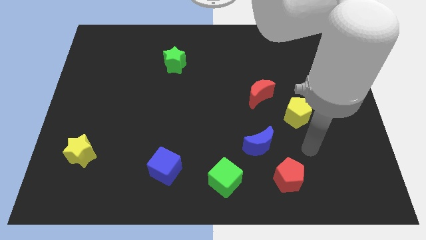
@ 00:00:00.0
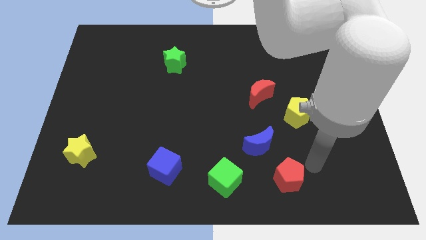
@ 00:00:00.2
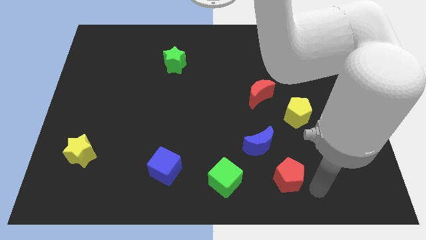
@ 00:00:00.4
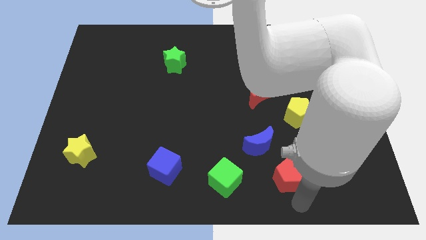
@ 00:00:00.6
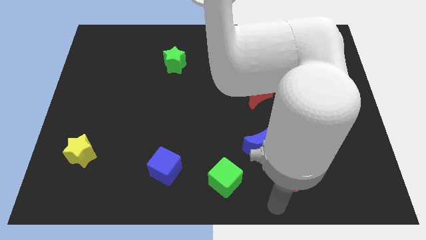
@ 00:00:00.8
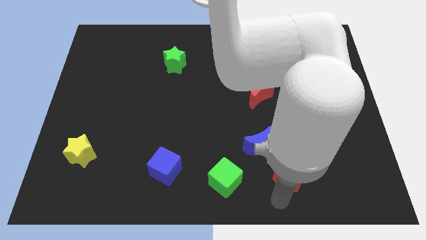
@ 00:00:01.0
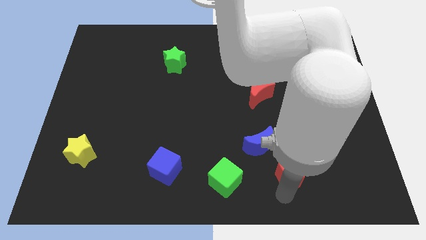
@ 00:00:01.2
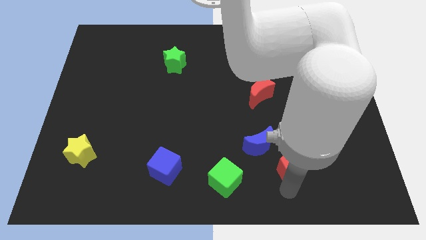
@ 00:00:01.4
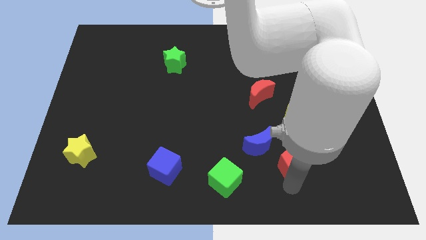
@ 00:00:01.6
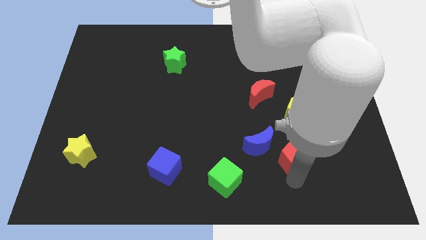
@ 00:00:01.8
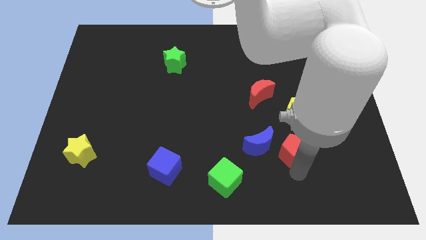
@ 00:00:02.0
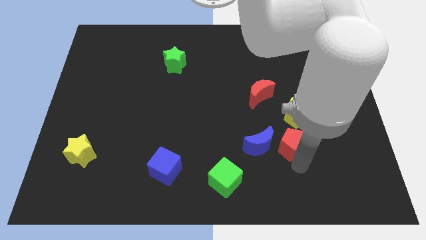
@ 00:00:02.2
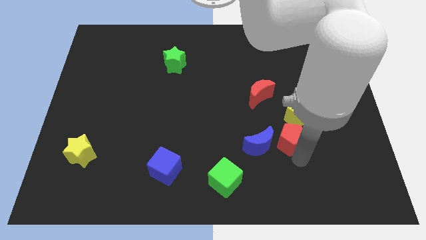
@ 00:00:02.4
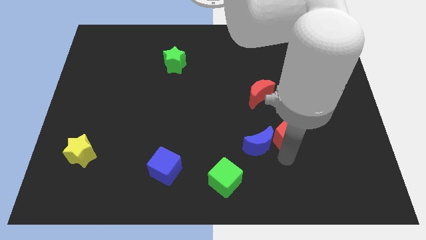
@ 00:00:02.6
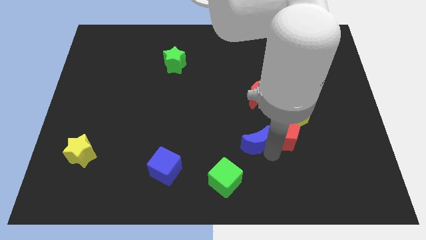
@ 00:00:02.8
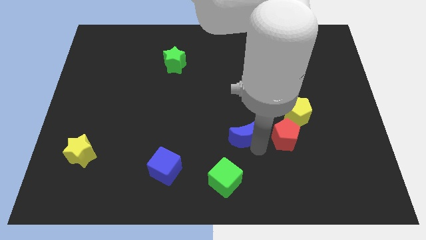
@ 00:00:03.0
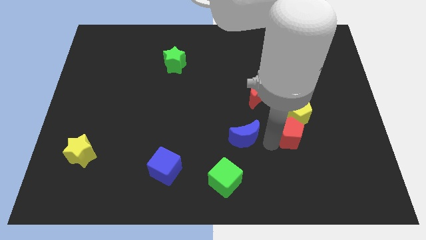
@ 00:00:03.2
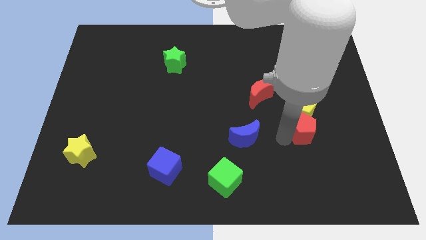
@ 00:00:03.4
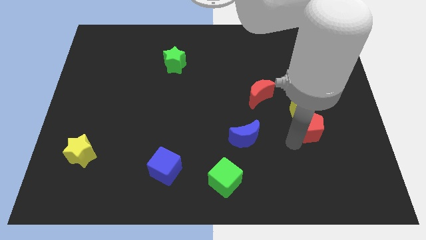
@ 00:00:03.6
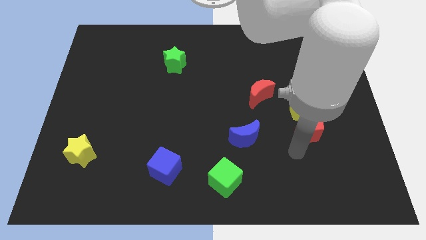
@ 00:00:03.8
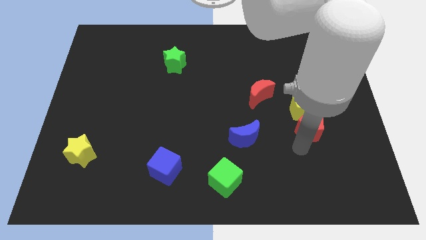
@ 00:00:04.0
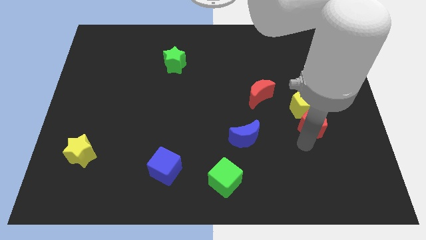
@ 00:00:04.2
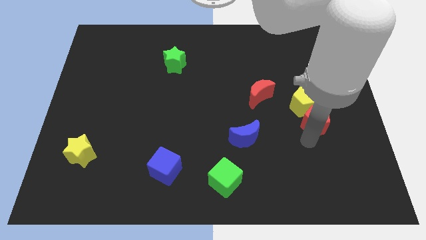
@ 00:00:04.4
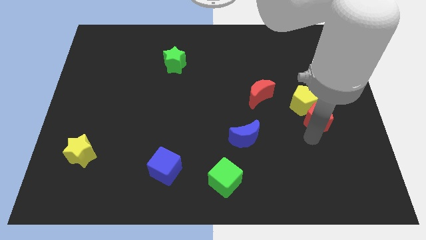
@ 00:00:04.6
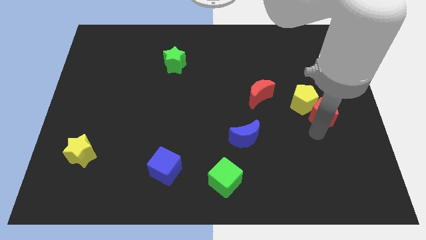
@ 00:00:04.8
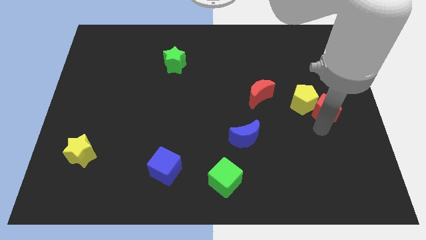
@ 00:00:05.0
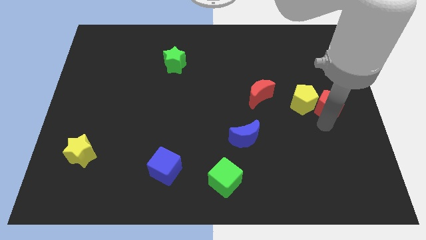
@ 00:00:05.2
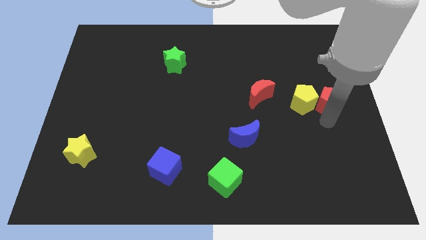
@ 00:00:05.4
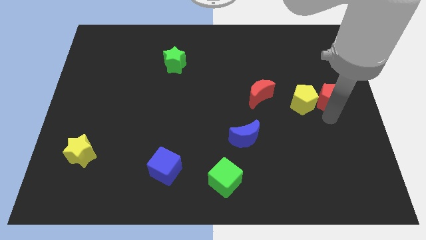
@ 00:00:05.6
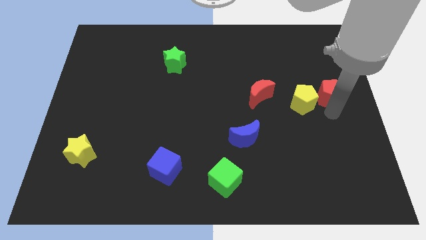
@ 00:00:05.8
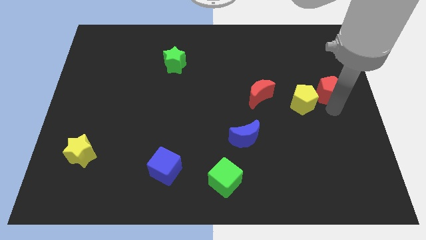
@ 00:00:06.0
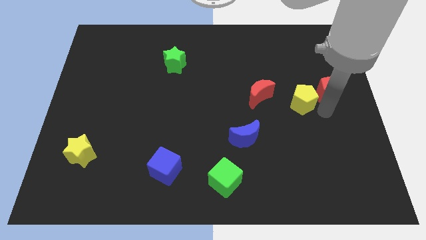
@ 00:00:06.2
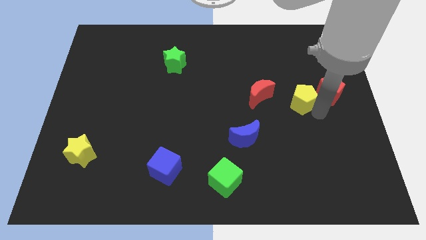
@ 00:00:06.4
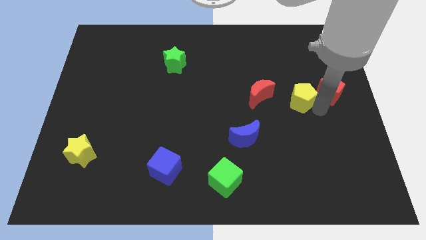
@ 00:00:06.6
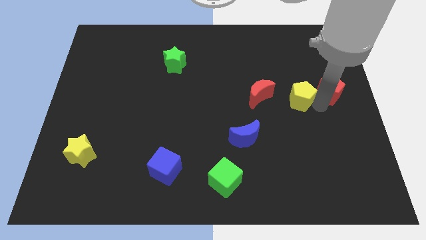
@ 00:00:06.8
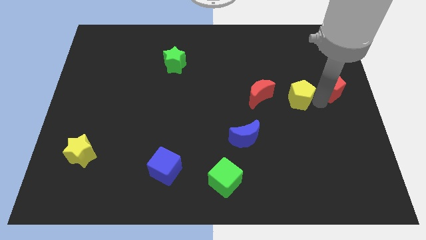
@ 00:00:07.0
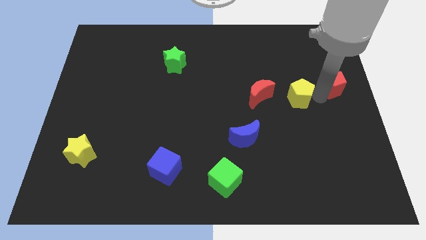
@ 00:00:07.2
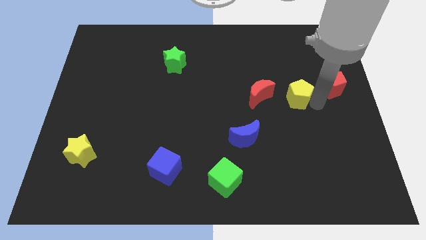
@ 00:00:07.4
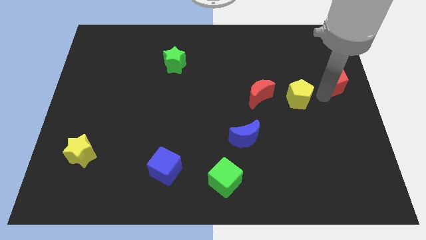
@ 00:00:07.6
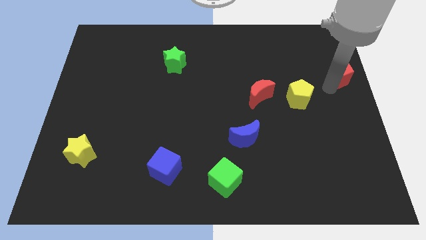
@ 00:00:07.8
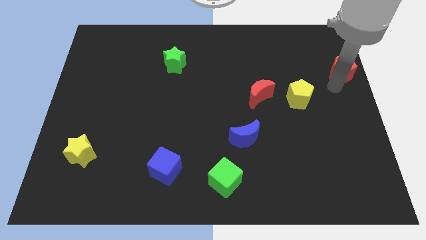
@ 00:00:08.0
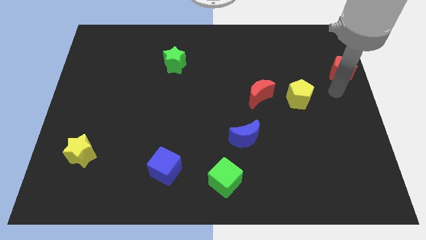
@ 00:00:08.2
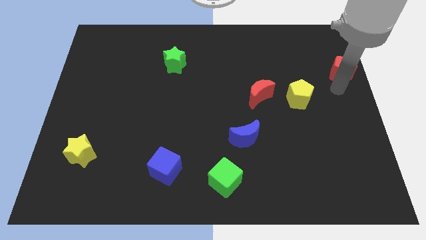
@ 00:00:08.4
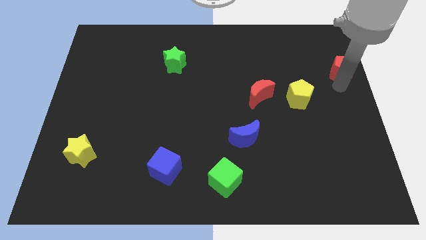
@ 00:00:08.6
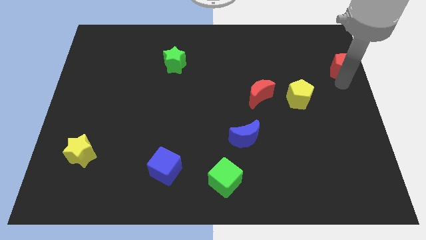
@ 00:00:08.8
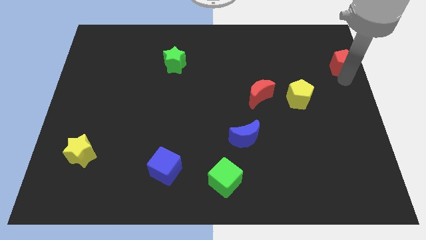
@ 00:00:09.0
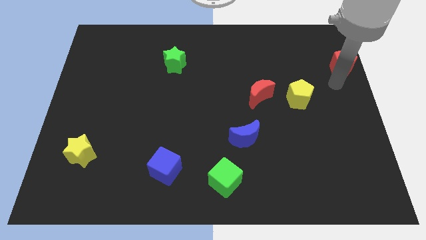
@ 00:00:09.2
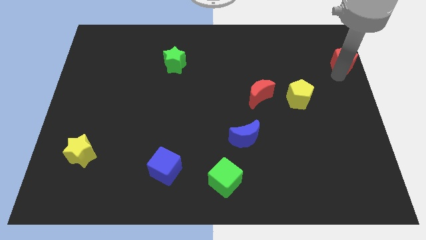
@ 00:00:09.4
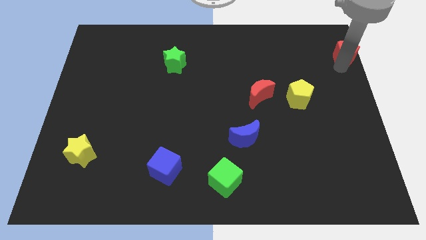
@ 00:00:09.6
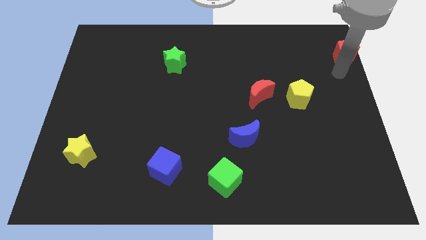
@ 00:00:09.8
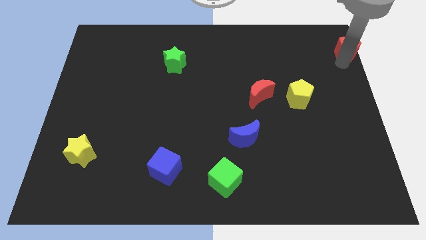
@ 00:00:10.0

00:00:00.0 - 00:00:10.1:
slide the red pentagon to the top right of the board
